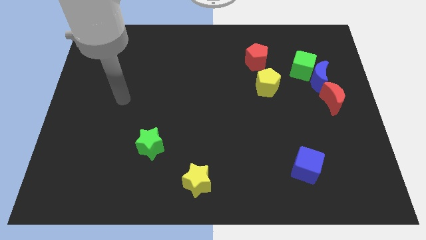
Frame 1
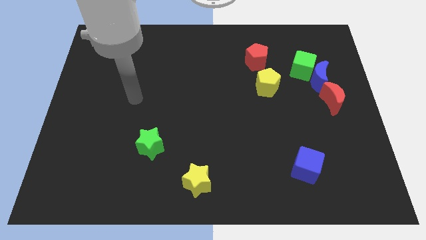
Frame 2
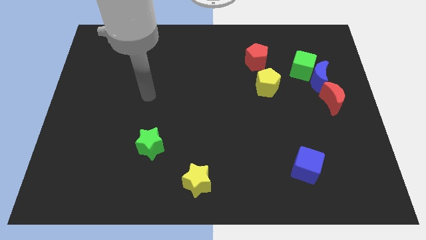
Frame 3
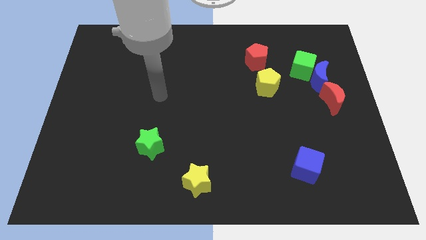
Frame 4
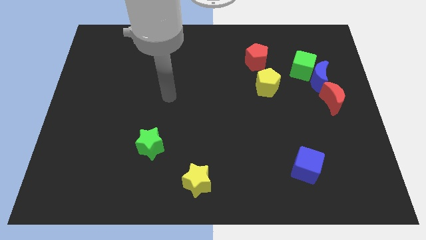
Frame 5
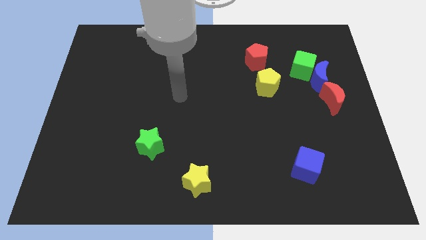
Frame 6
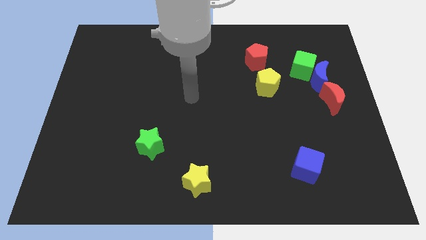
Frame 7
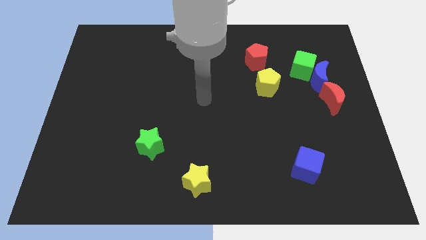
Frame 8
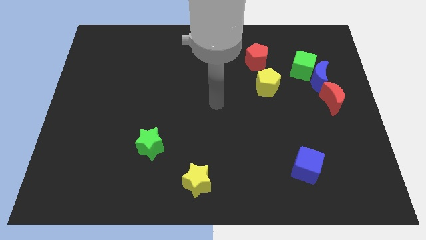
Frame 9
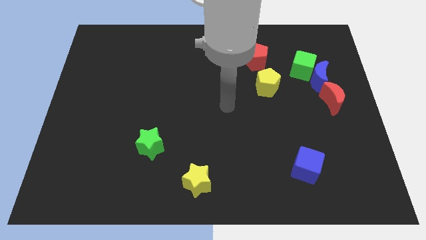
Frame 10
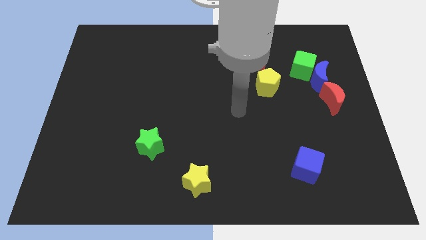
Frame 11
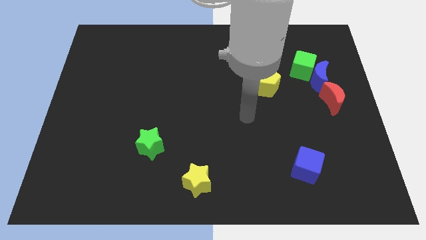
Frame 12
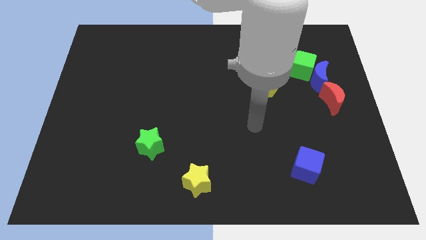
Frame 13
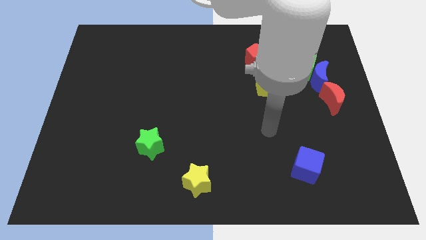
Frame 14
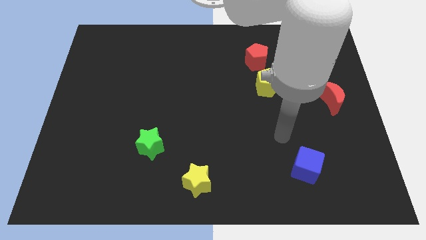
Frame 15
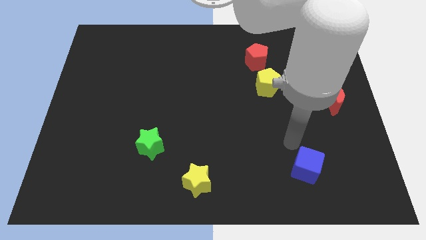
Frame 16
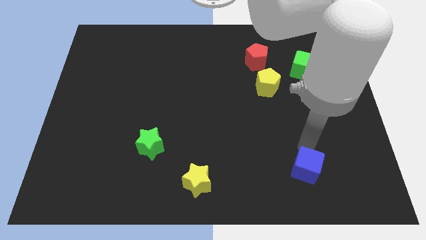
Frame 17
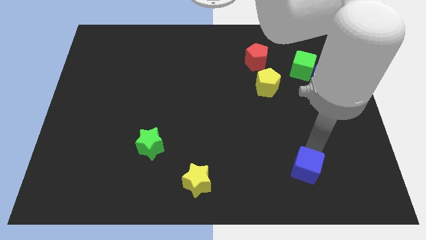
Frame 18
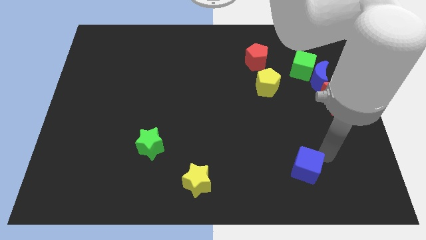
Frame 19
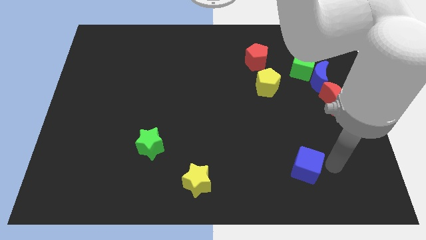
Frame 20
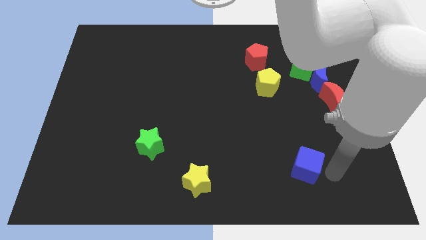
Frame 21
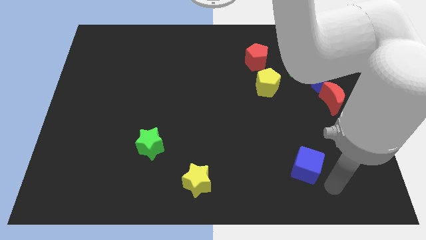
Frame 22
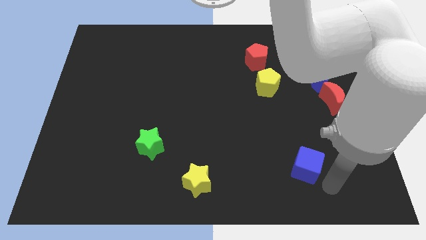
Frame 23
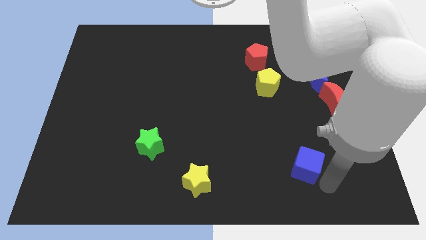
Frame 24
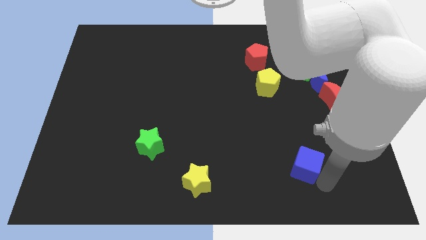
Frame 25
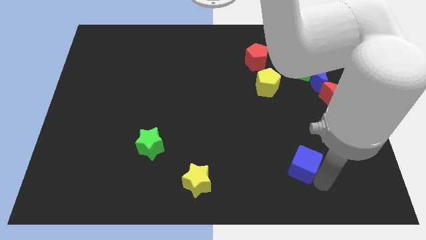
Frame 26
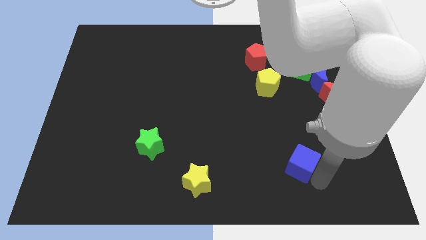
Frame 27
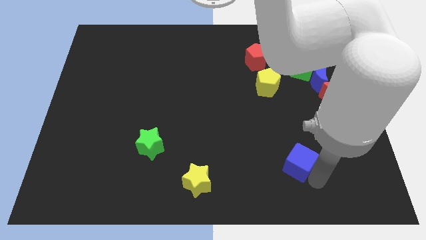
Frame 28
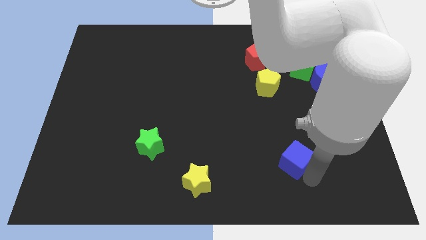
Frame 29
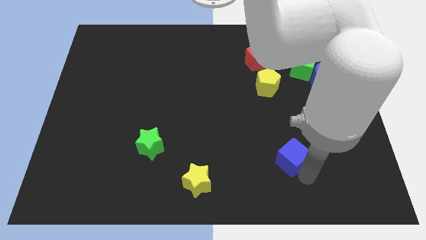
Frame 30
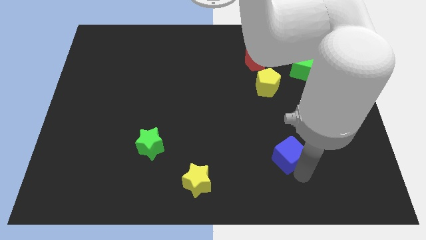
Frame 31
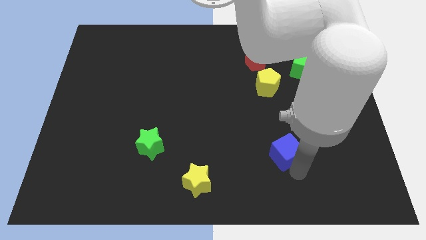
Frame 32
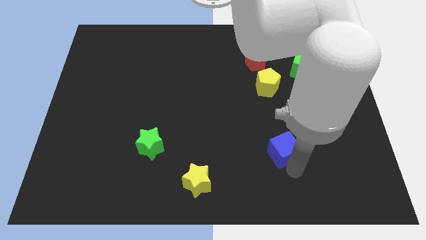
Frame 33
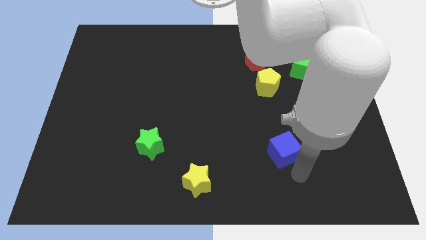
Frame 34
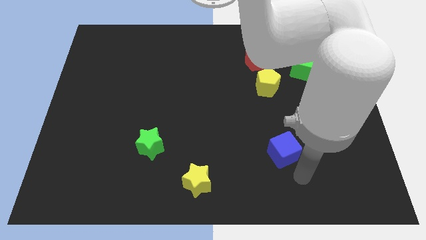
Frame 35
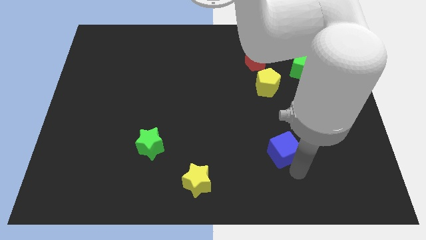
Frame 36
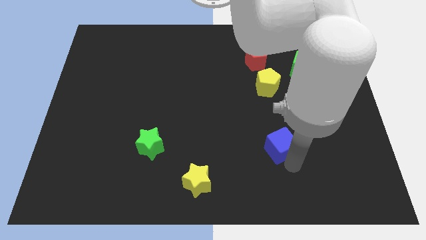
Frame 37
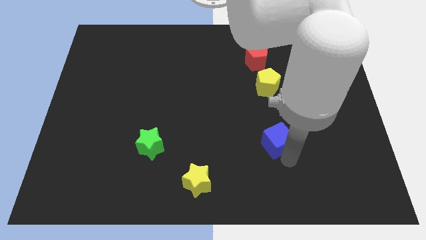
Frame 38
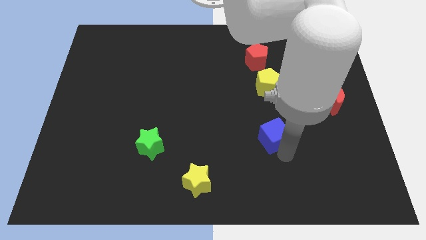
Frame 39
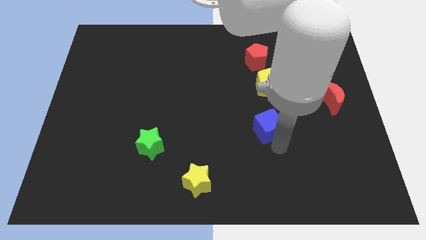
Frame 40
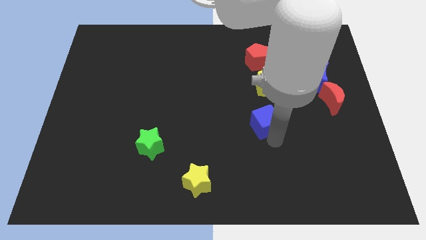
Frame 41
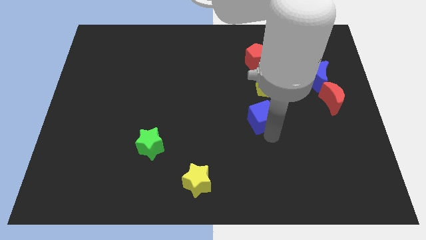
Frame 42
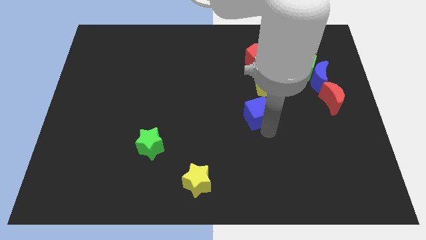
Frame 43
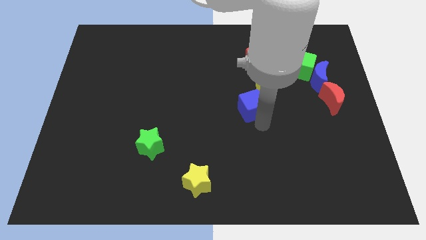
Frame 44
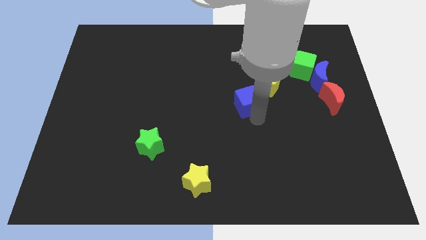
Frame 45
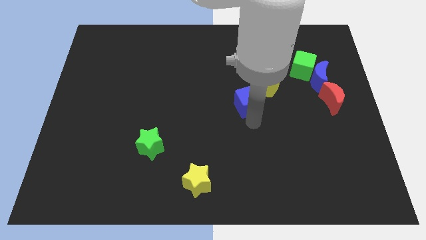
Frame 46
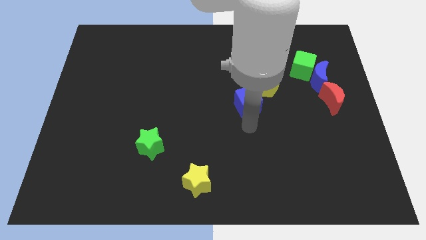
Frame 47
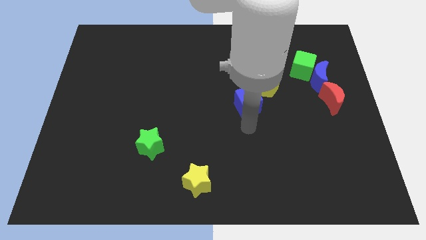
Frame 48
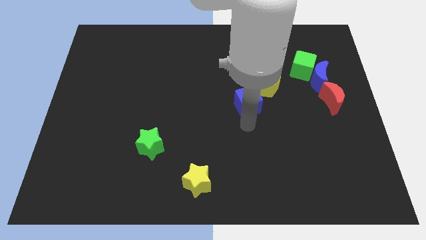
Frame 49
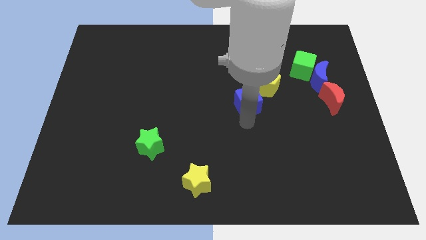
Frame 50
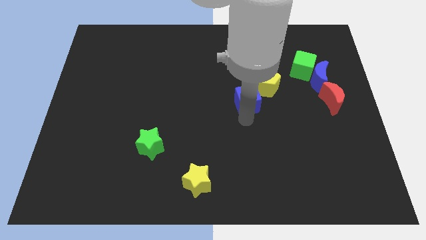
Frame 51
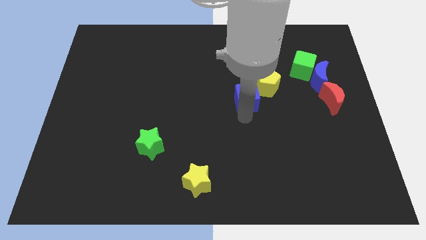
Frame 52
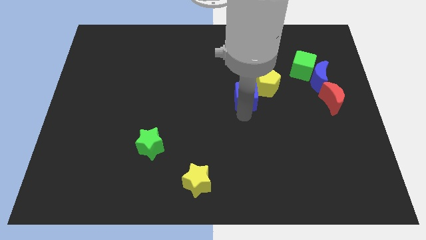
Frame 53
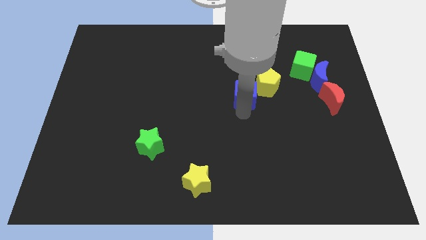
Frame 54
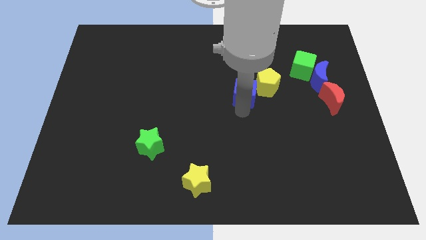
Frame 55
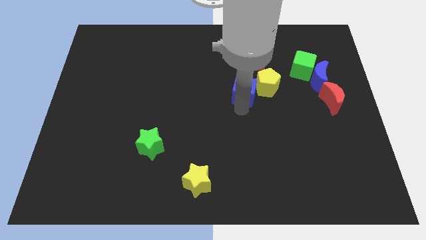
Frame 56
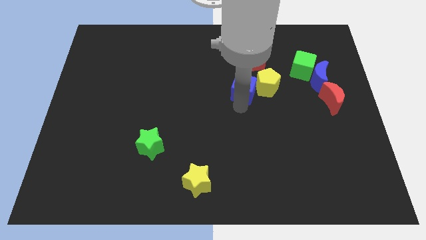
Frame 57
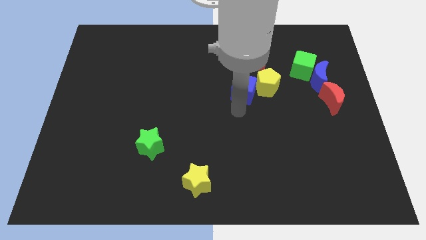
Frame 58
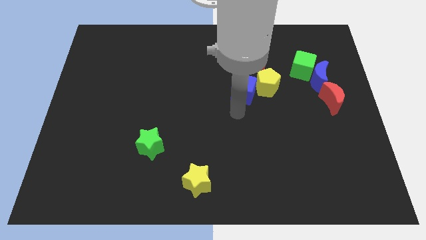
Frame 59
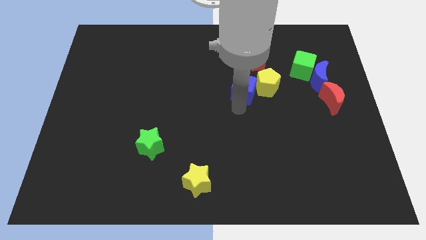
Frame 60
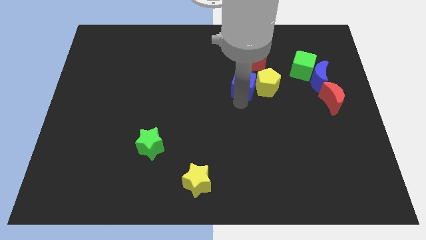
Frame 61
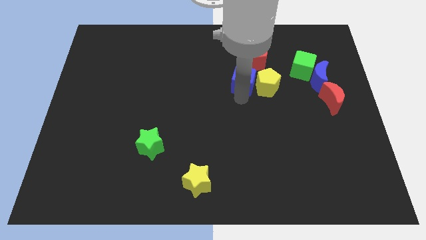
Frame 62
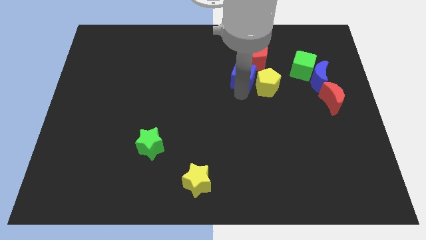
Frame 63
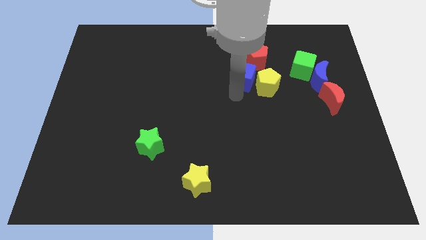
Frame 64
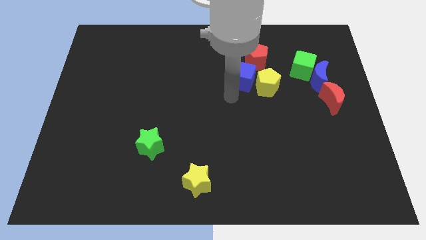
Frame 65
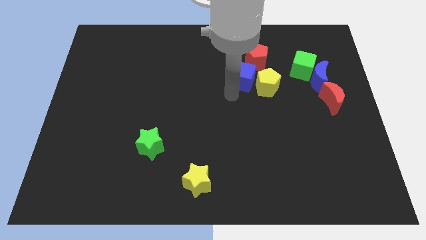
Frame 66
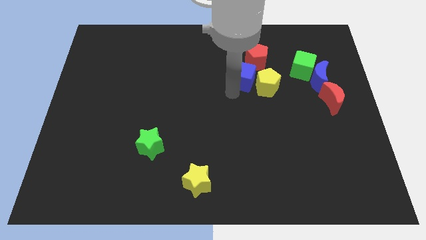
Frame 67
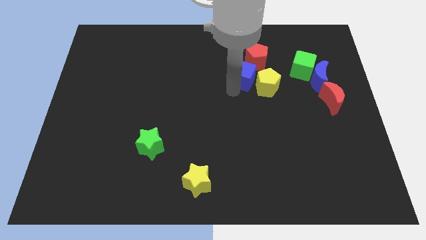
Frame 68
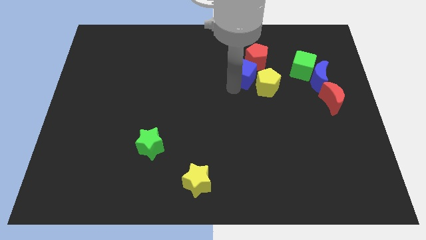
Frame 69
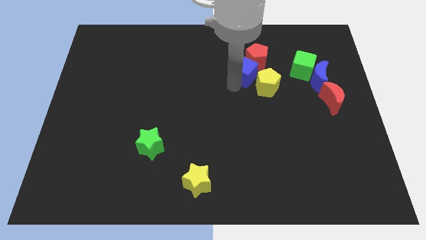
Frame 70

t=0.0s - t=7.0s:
push the blue cube towards the red pentagon

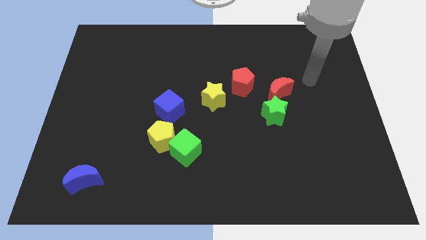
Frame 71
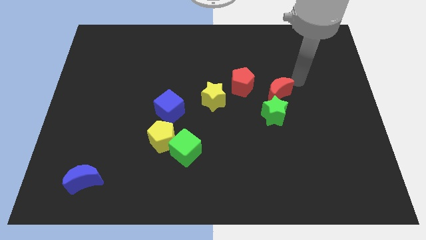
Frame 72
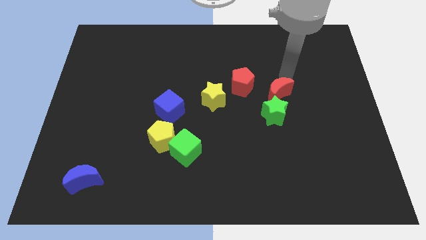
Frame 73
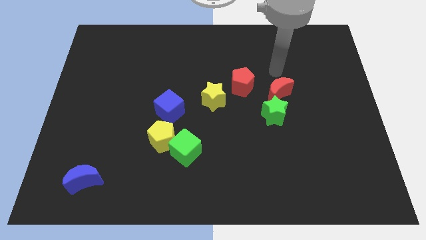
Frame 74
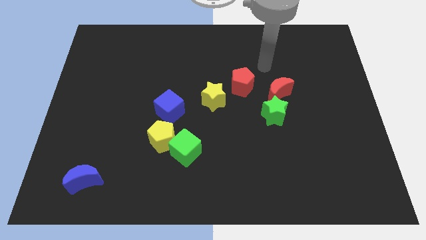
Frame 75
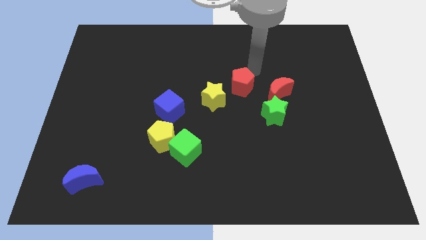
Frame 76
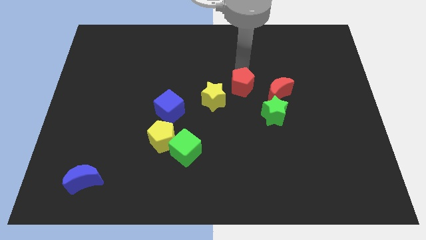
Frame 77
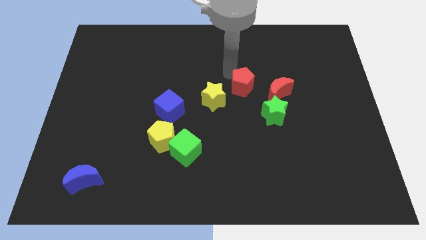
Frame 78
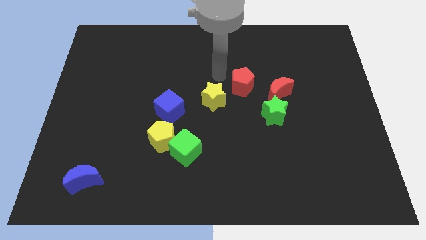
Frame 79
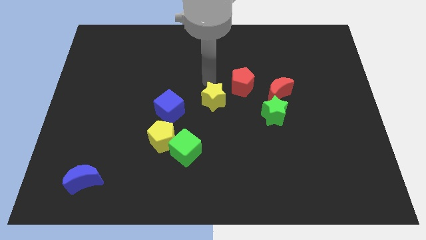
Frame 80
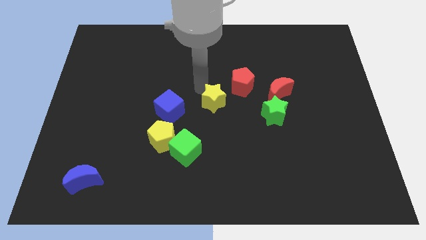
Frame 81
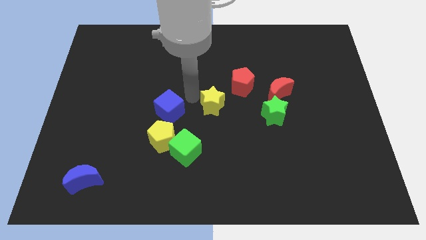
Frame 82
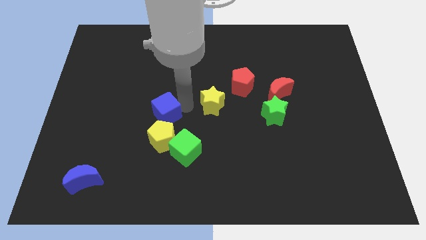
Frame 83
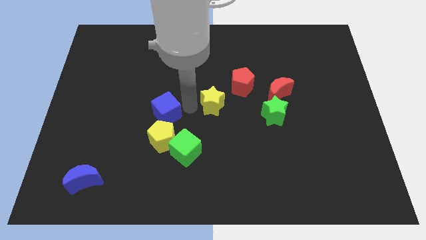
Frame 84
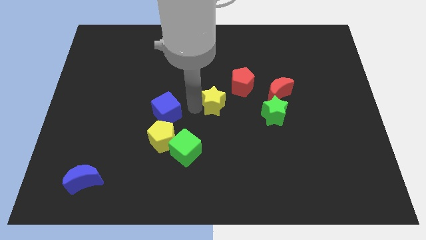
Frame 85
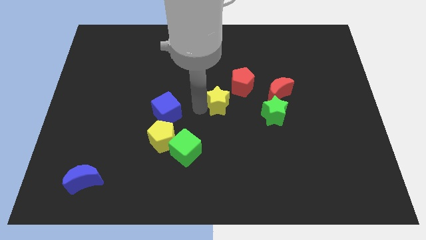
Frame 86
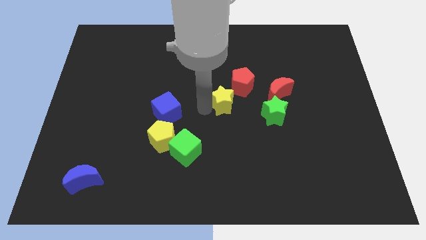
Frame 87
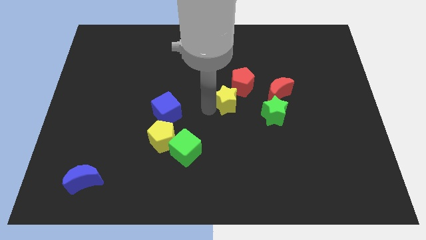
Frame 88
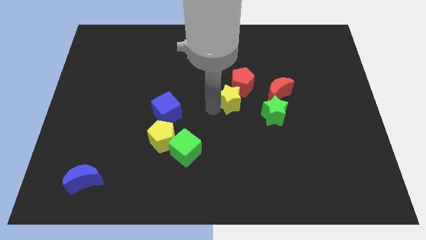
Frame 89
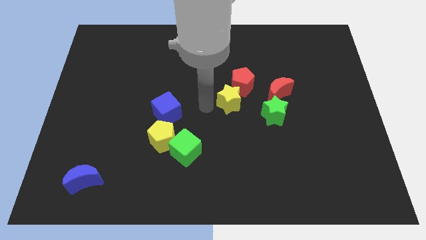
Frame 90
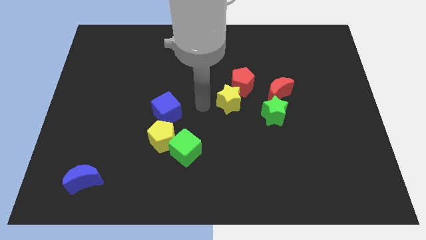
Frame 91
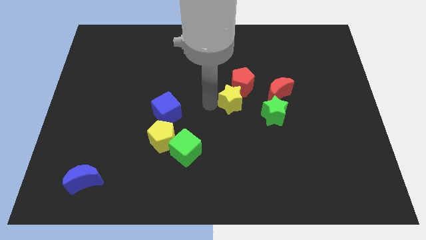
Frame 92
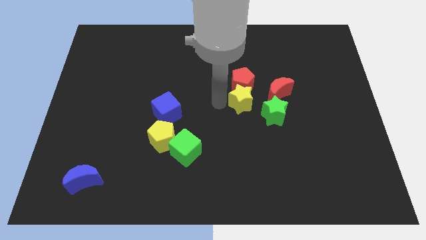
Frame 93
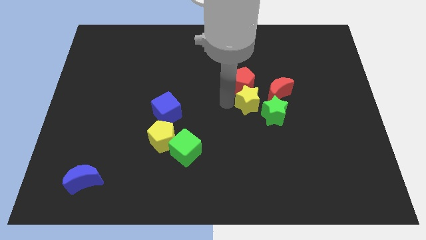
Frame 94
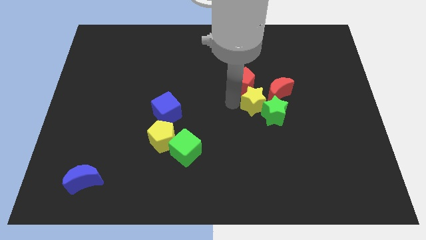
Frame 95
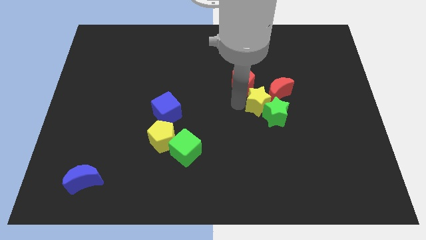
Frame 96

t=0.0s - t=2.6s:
move the yellow star next to the red moon
